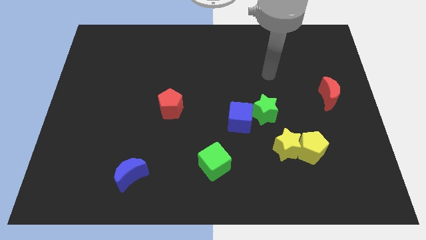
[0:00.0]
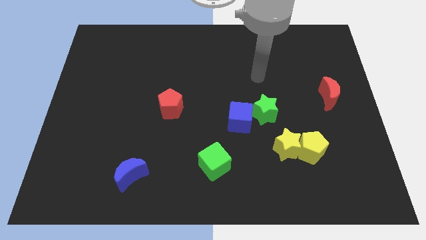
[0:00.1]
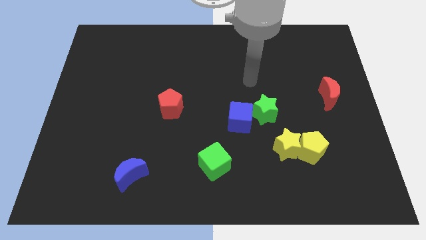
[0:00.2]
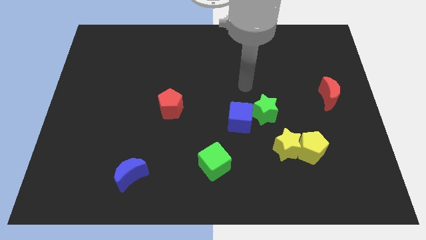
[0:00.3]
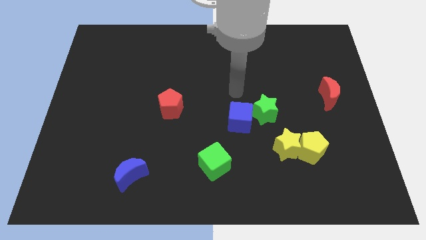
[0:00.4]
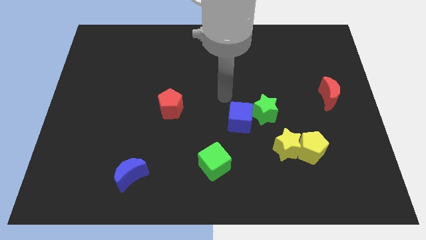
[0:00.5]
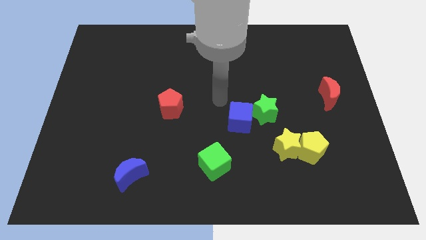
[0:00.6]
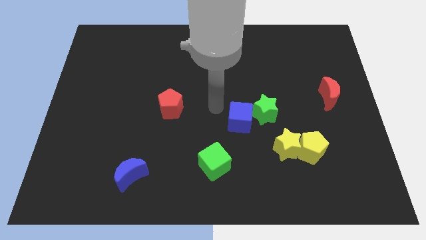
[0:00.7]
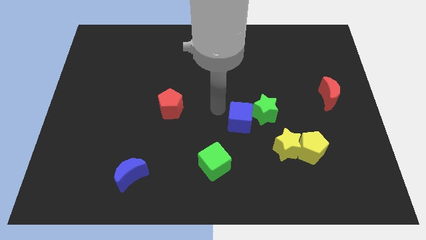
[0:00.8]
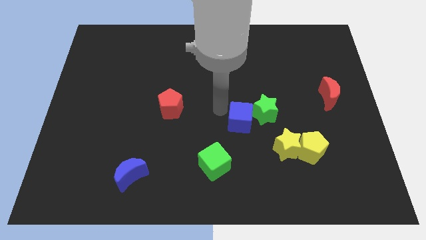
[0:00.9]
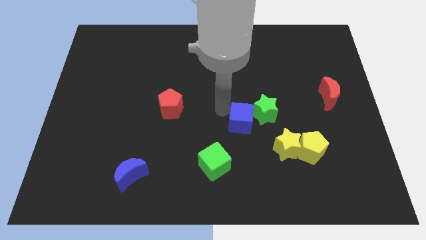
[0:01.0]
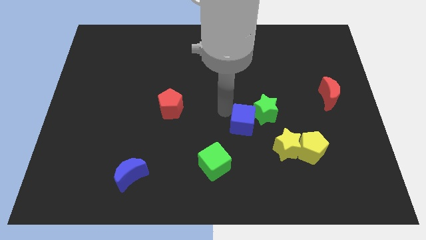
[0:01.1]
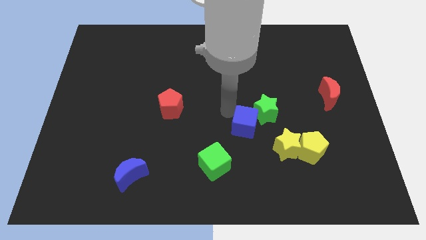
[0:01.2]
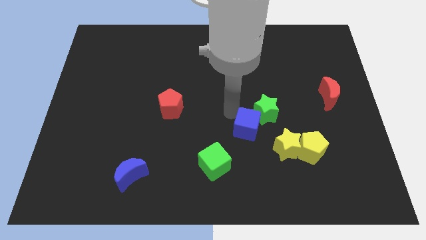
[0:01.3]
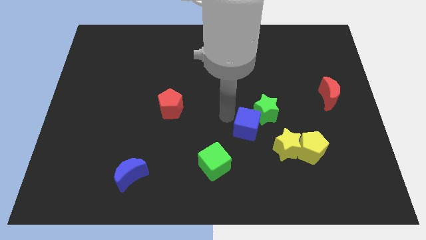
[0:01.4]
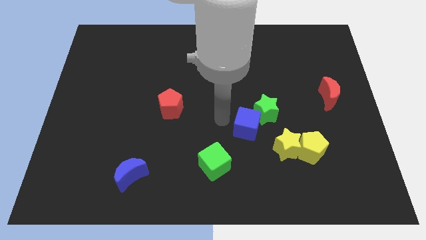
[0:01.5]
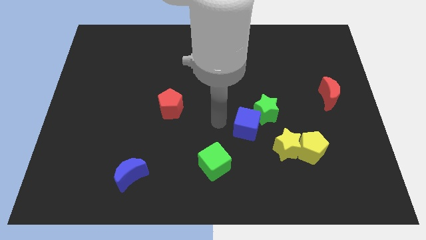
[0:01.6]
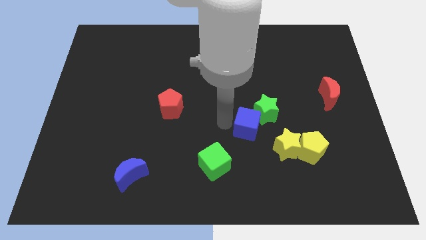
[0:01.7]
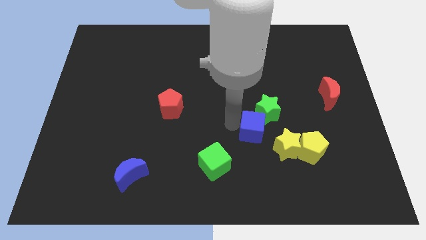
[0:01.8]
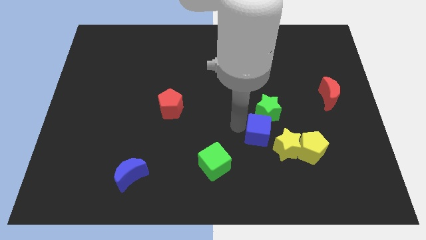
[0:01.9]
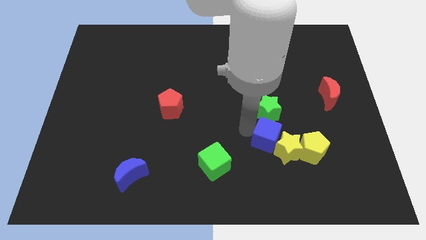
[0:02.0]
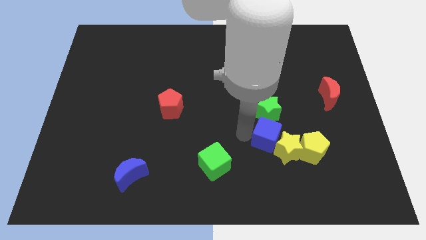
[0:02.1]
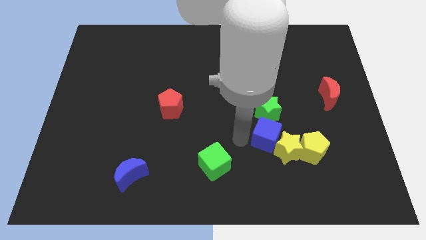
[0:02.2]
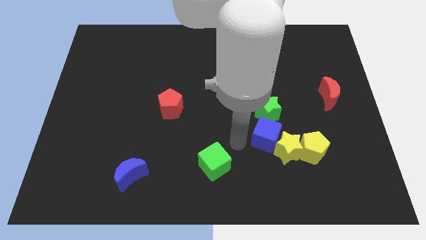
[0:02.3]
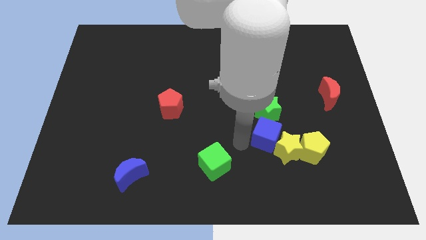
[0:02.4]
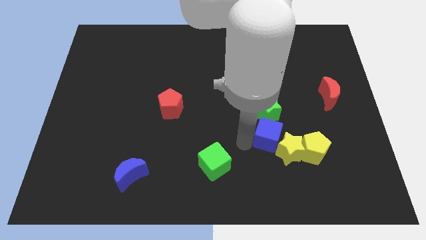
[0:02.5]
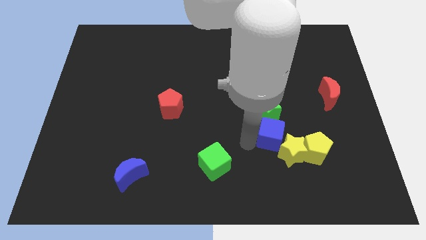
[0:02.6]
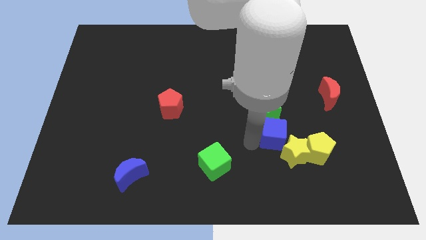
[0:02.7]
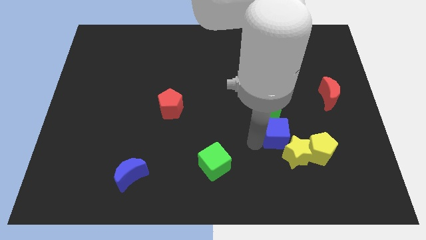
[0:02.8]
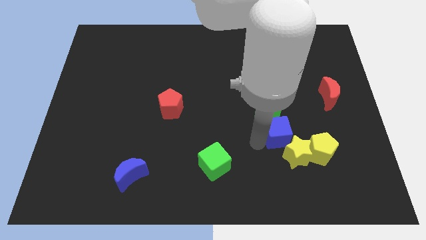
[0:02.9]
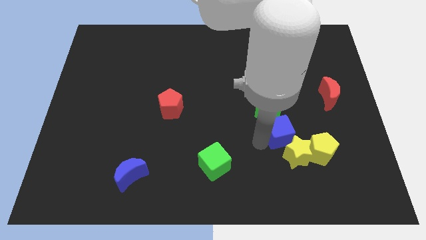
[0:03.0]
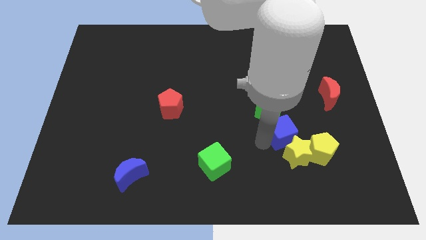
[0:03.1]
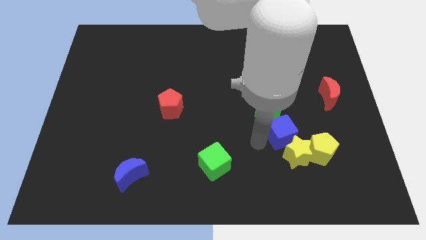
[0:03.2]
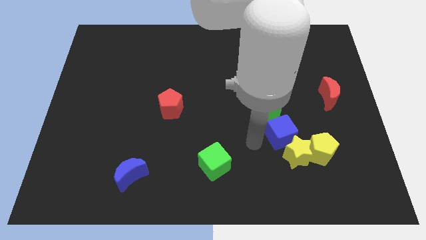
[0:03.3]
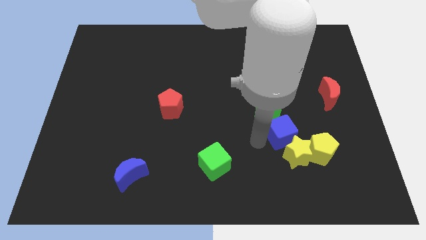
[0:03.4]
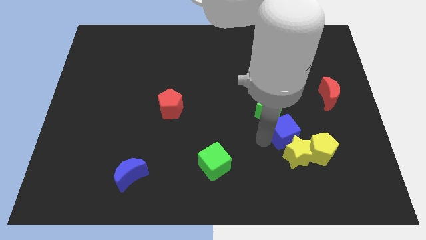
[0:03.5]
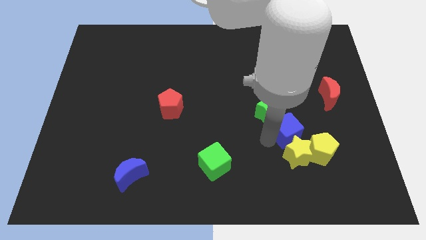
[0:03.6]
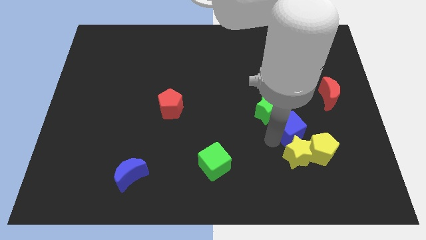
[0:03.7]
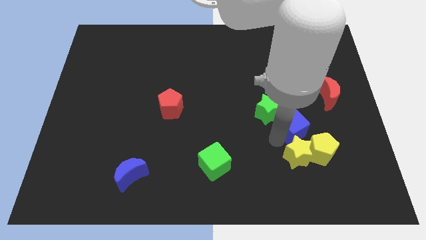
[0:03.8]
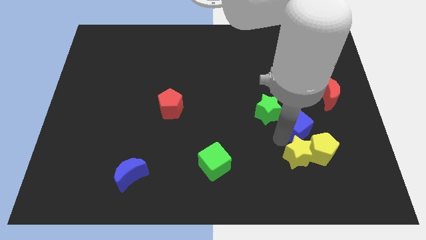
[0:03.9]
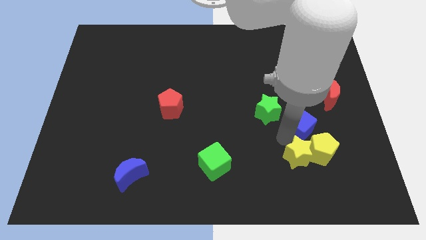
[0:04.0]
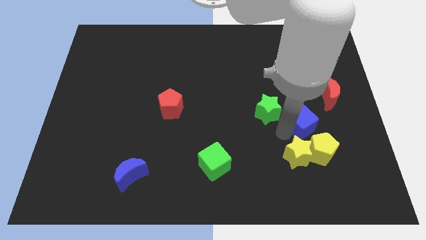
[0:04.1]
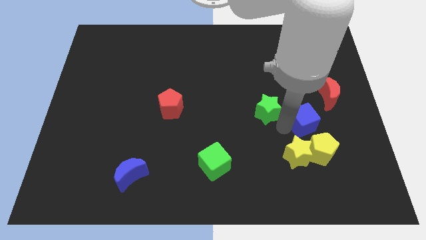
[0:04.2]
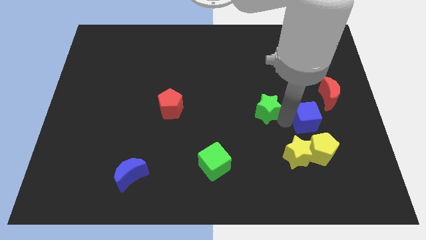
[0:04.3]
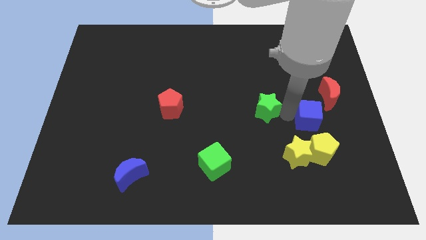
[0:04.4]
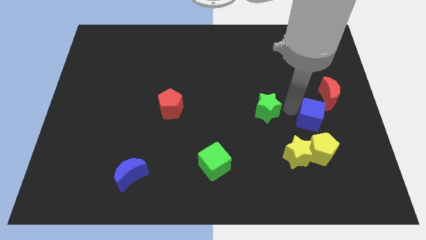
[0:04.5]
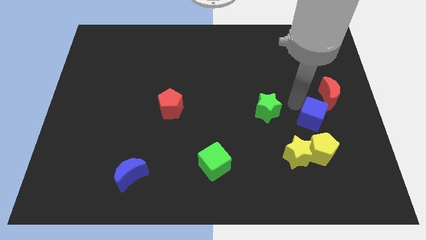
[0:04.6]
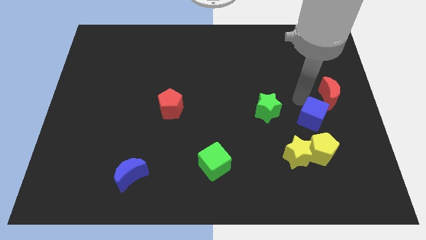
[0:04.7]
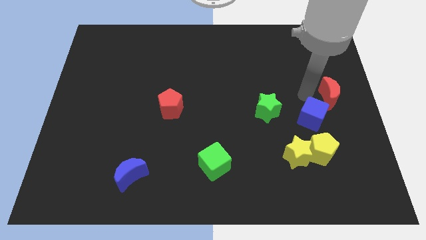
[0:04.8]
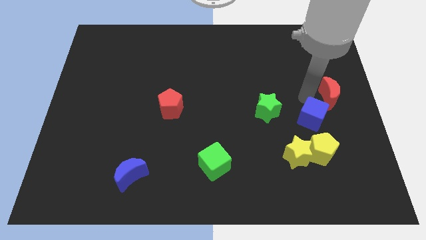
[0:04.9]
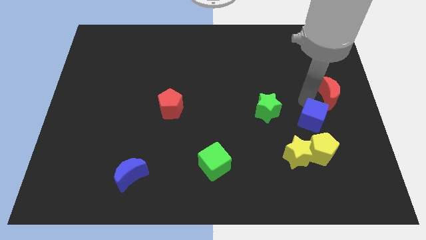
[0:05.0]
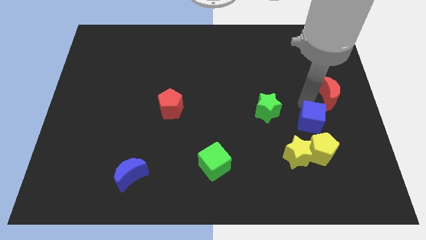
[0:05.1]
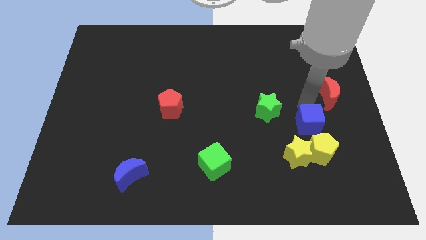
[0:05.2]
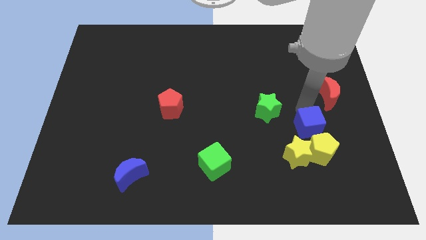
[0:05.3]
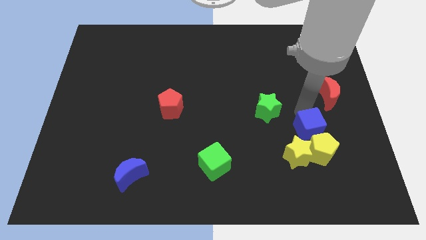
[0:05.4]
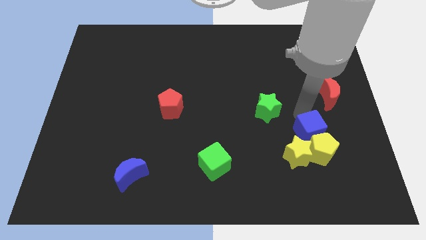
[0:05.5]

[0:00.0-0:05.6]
put the blue cube close to the yellow pentagon

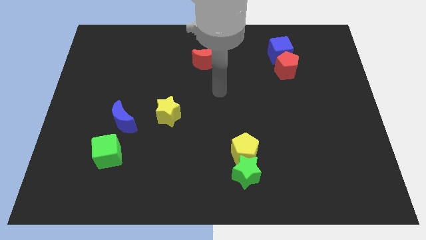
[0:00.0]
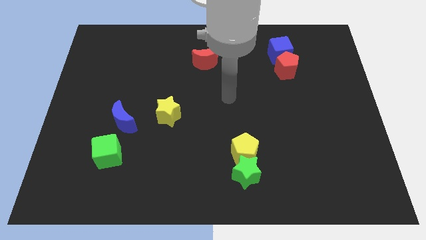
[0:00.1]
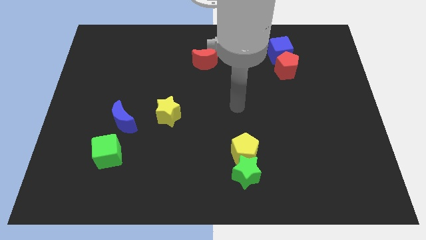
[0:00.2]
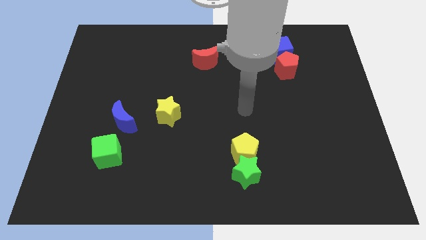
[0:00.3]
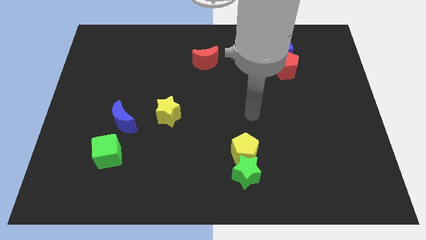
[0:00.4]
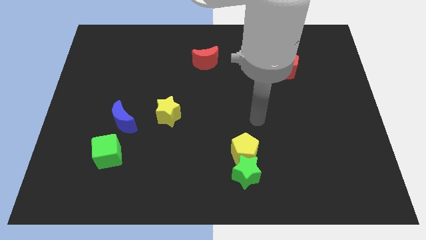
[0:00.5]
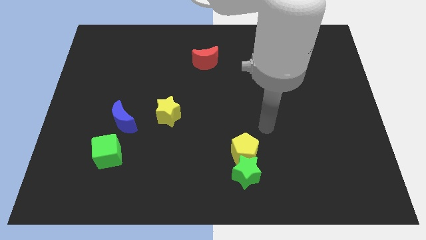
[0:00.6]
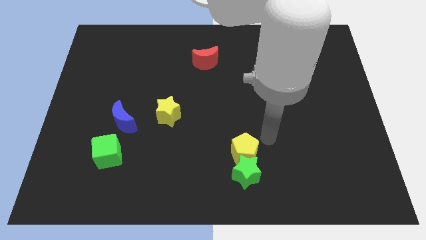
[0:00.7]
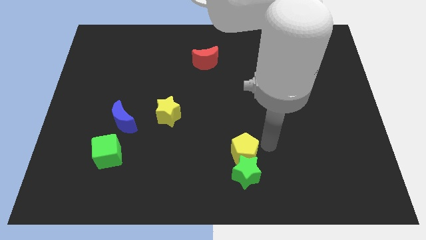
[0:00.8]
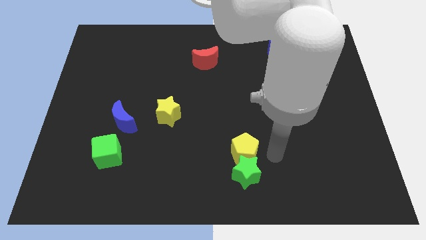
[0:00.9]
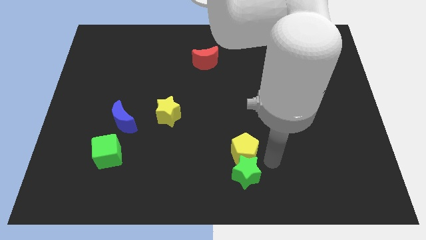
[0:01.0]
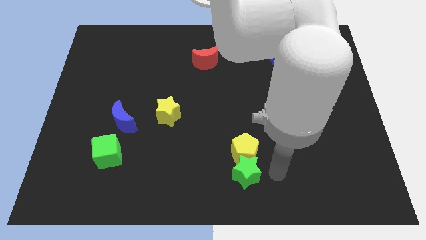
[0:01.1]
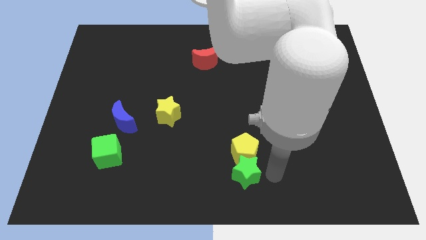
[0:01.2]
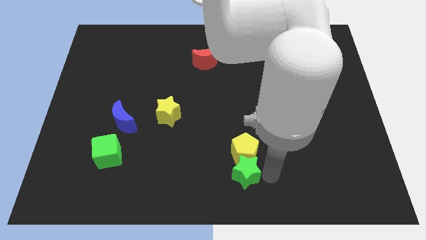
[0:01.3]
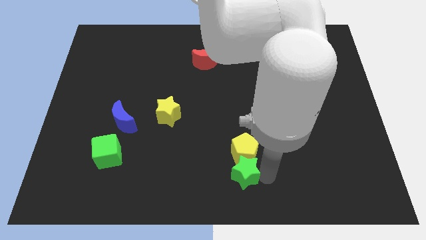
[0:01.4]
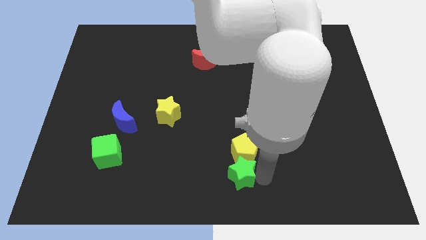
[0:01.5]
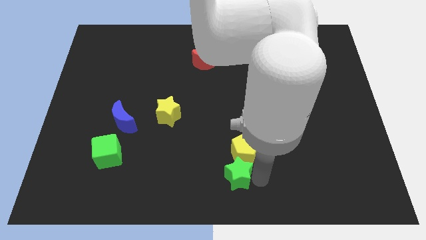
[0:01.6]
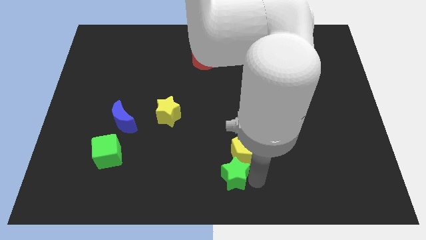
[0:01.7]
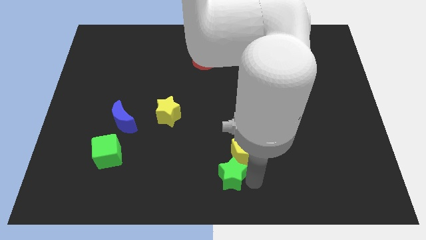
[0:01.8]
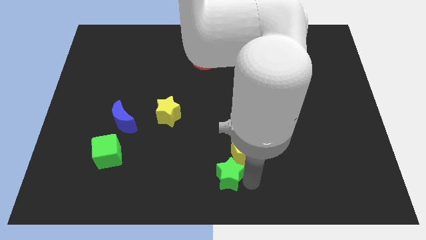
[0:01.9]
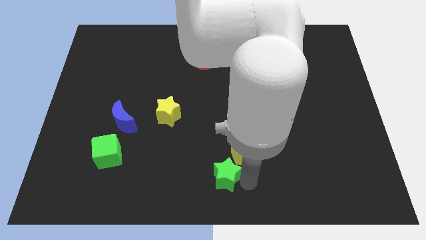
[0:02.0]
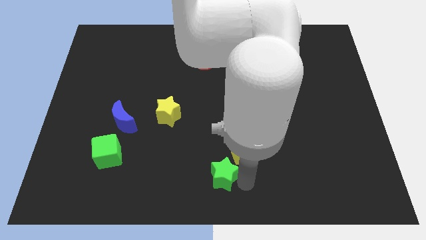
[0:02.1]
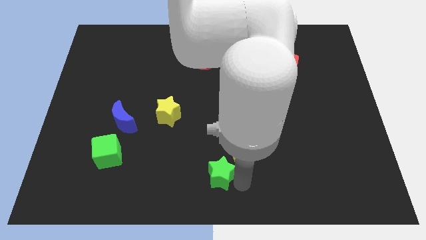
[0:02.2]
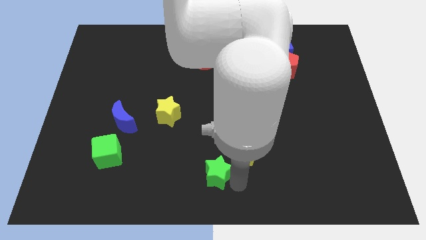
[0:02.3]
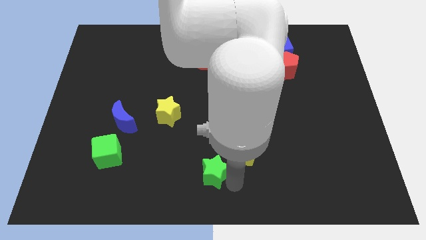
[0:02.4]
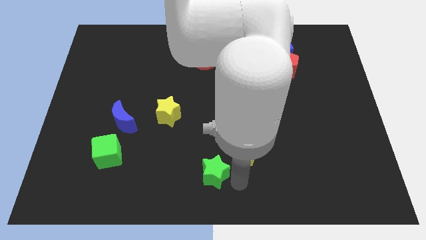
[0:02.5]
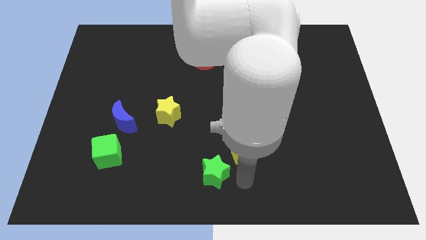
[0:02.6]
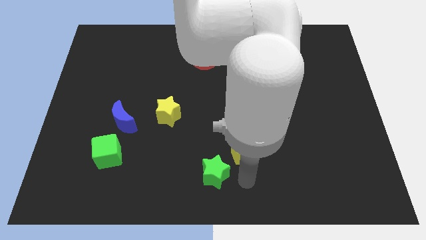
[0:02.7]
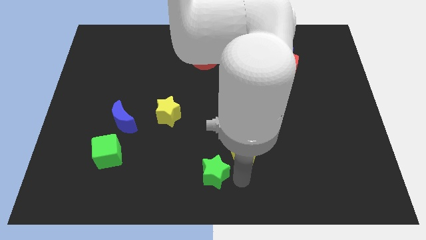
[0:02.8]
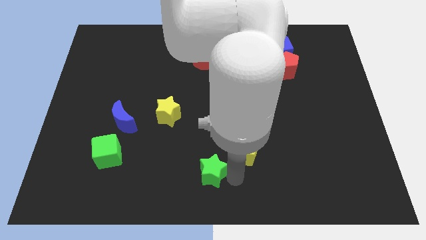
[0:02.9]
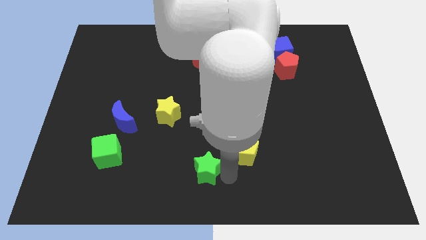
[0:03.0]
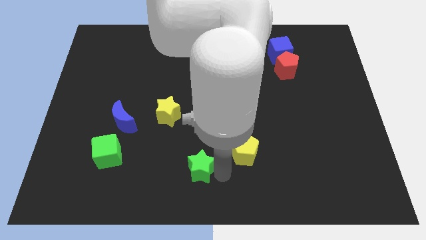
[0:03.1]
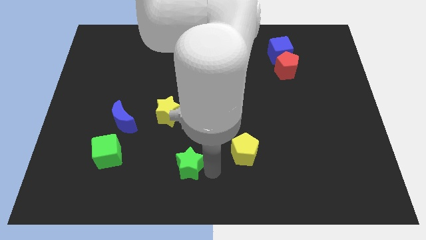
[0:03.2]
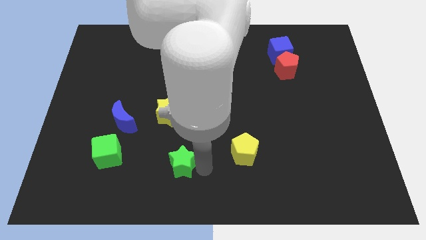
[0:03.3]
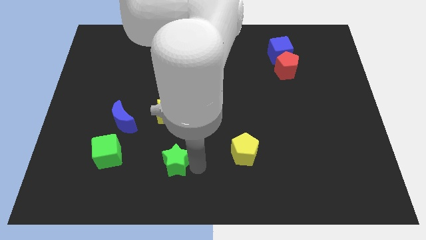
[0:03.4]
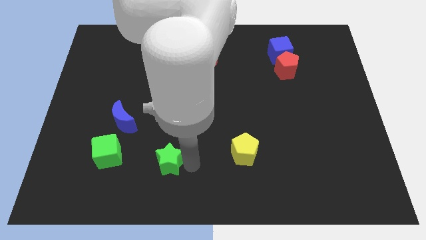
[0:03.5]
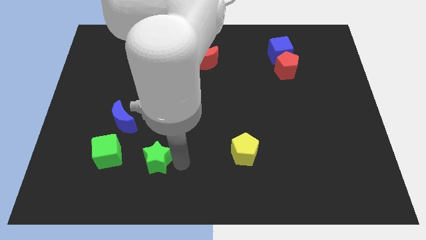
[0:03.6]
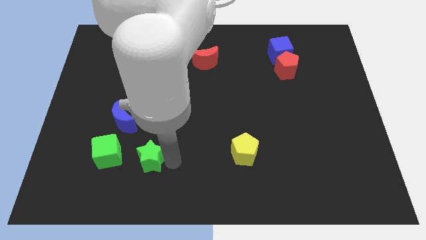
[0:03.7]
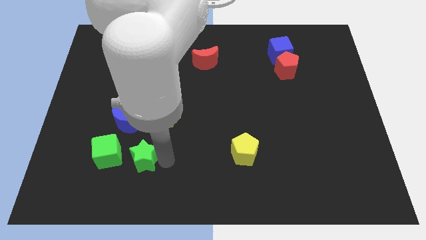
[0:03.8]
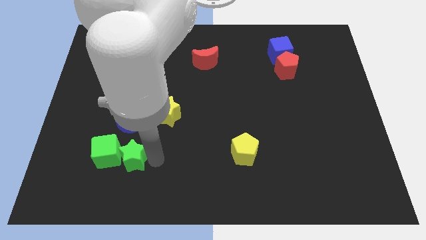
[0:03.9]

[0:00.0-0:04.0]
move the green star close to the green cube
